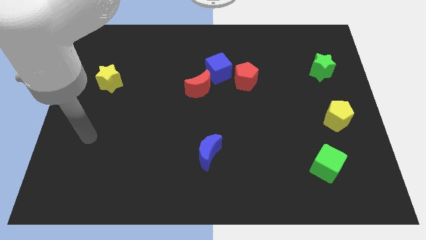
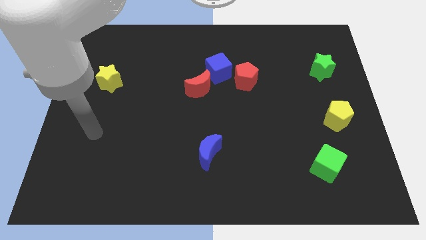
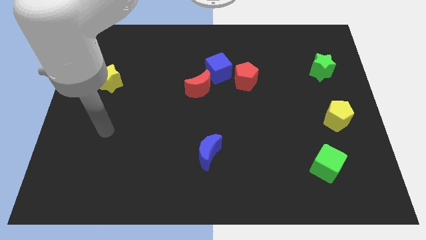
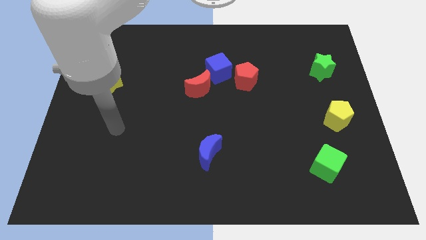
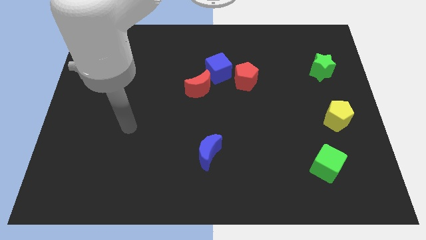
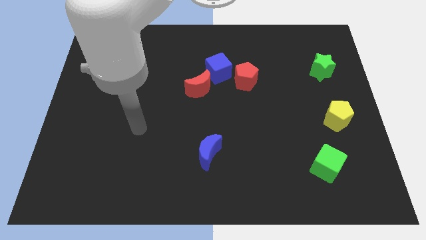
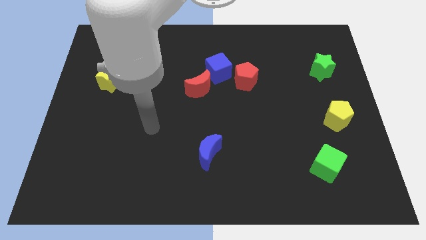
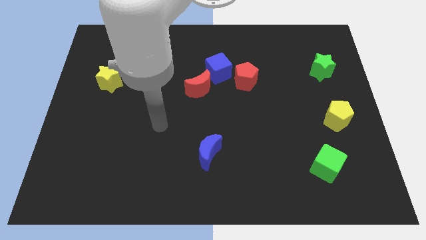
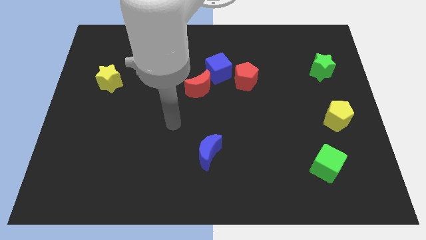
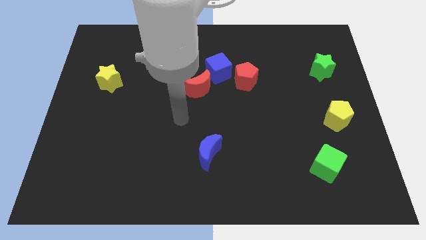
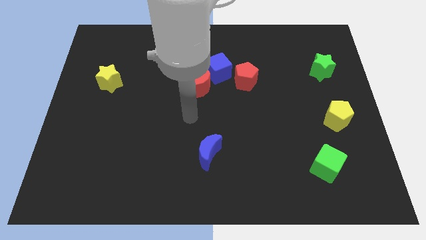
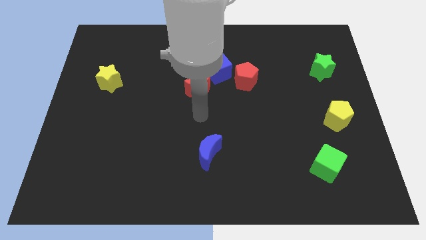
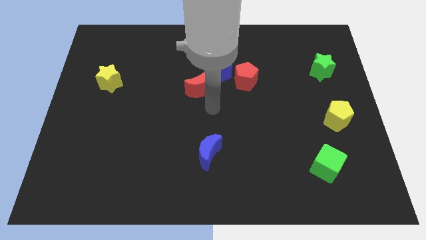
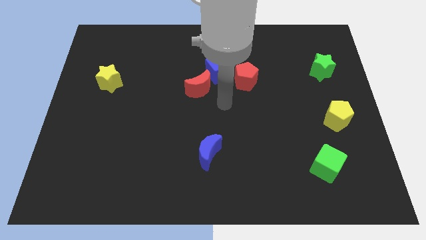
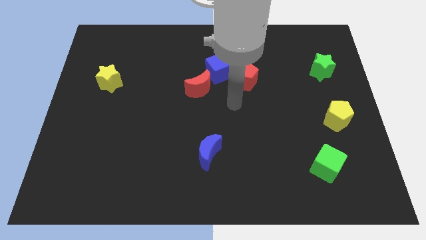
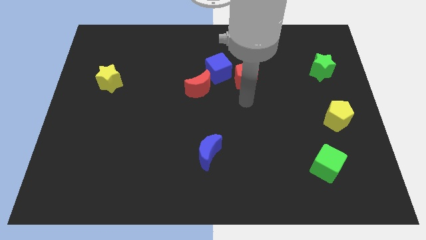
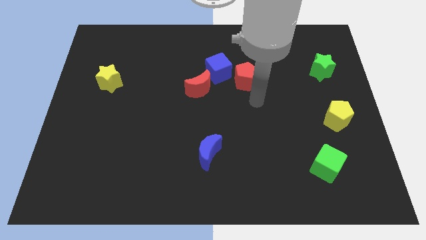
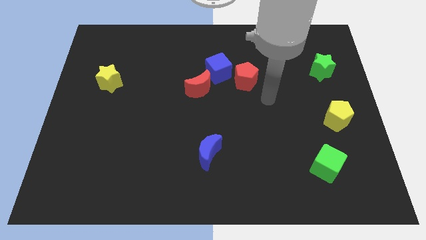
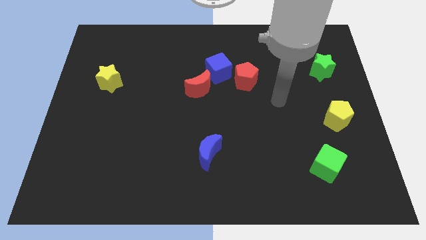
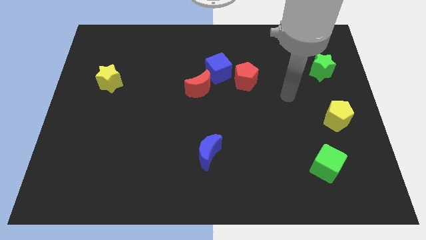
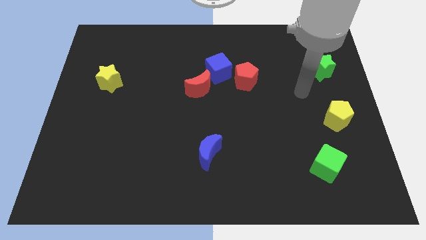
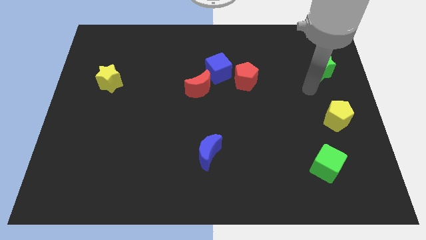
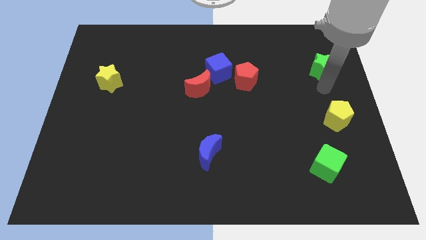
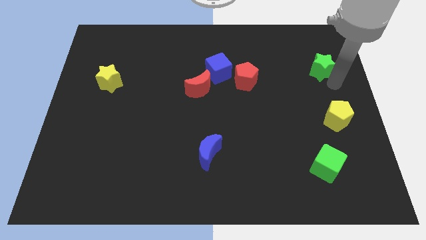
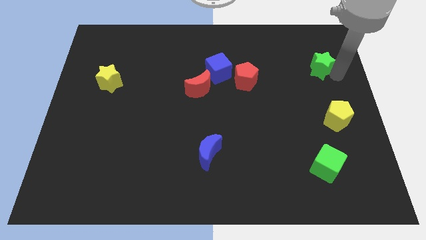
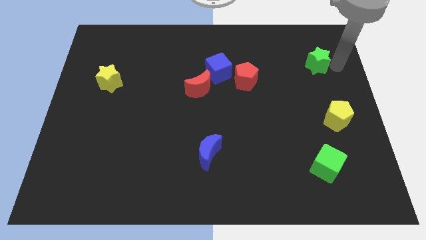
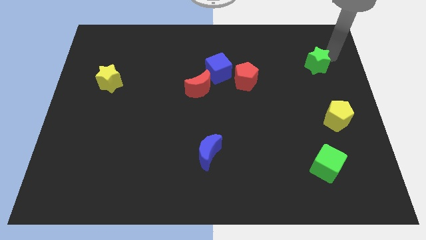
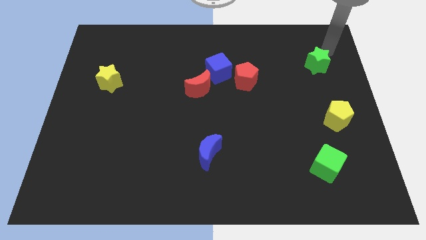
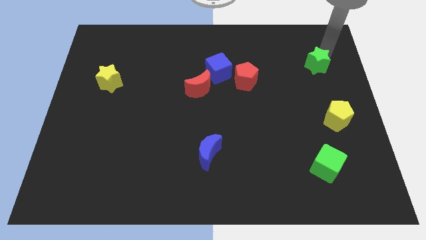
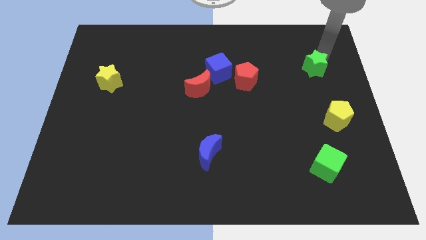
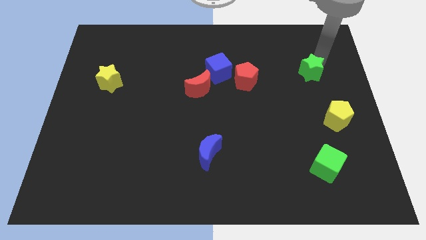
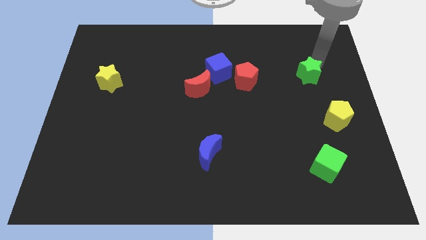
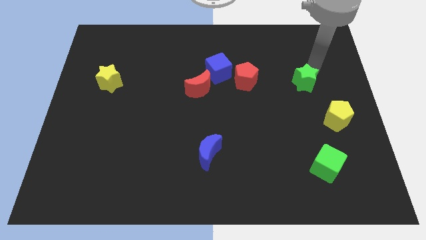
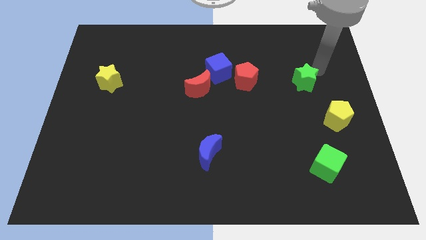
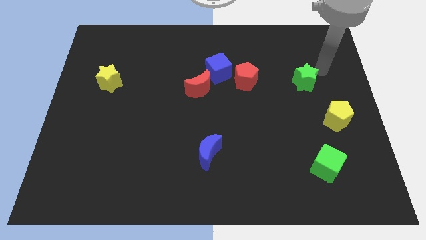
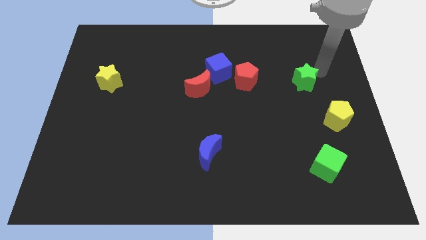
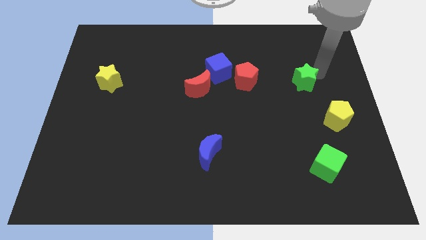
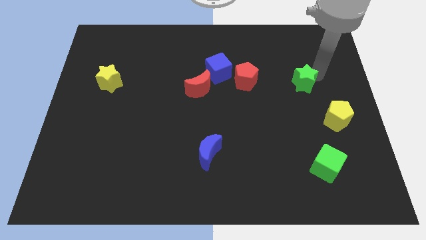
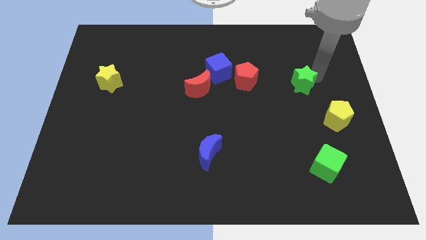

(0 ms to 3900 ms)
push the green star downwards and to the left slightly

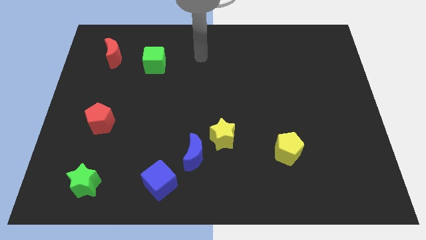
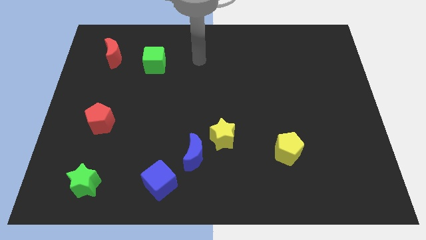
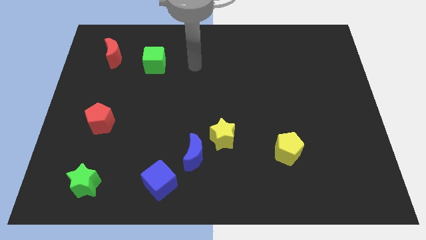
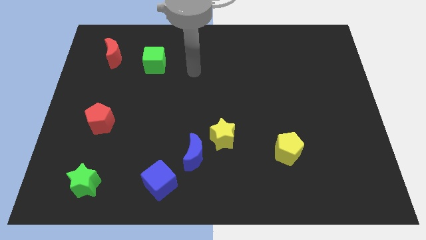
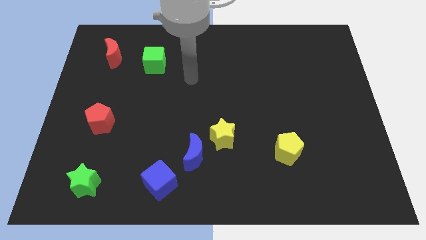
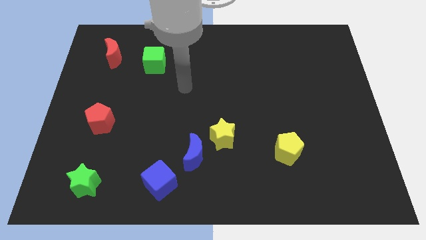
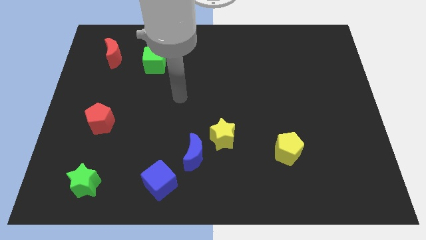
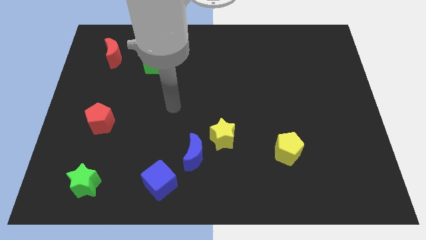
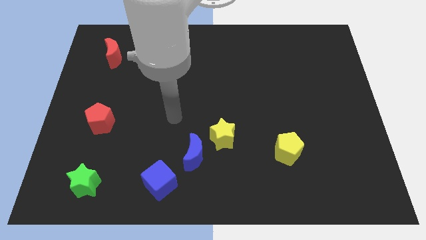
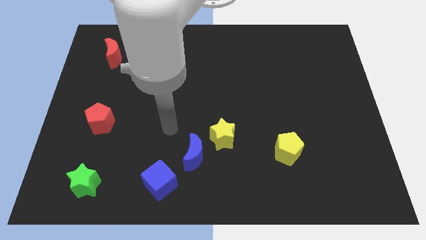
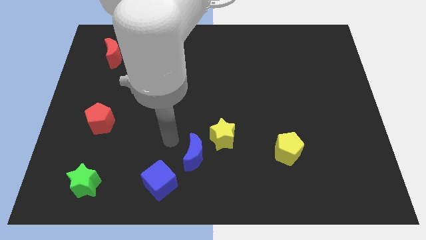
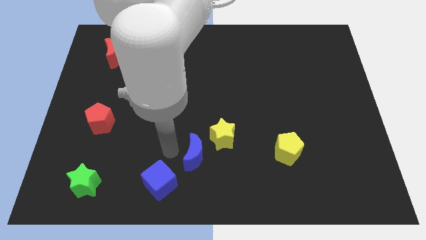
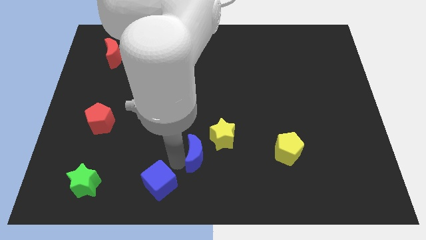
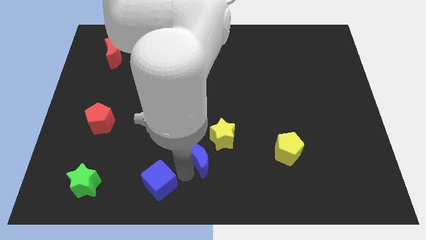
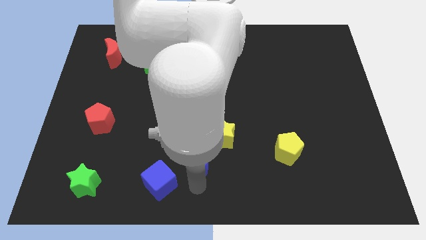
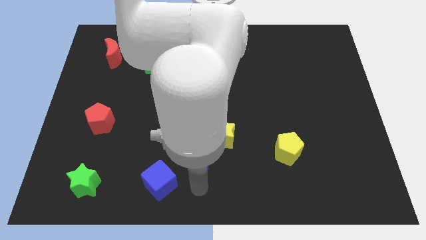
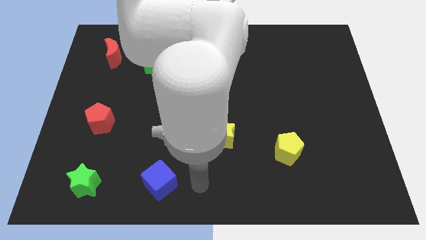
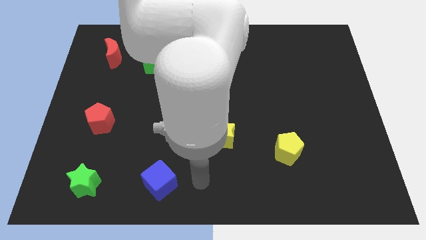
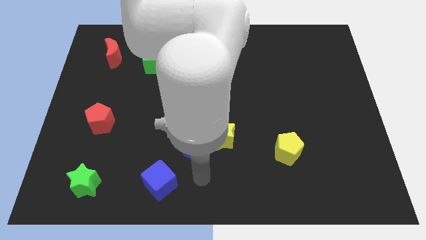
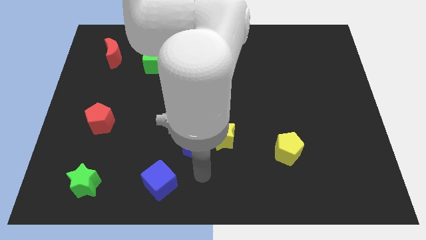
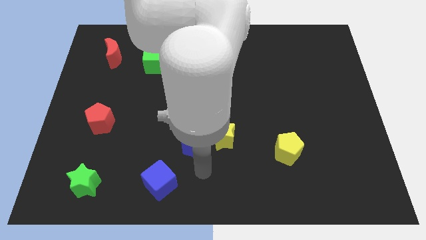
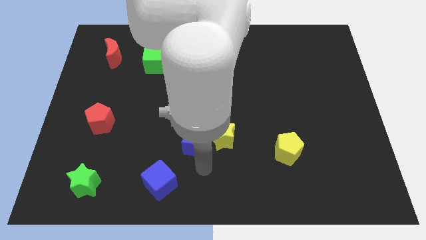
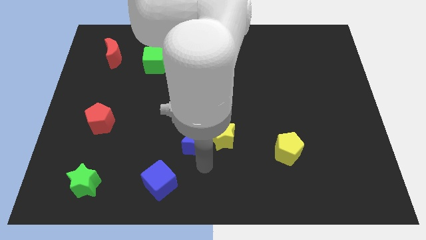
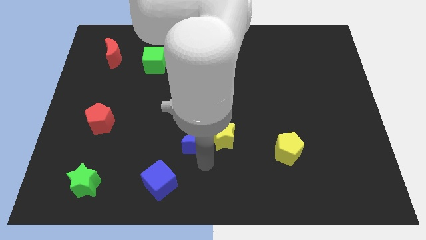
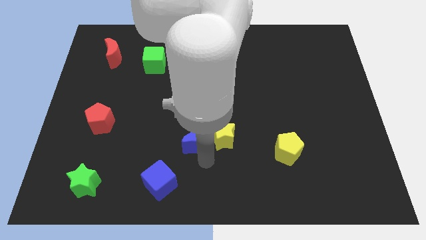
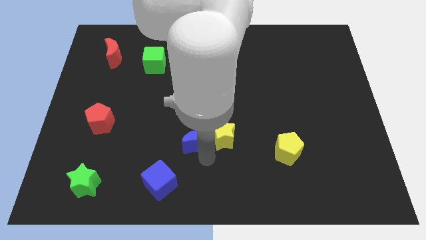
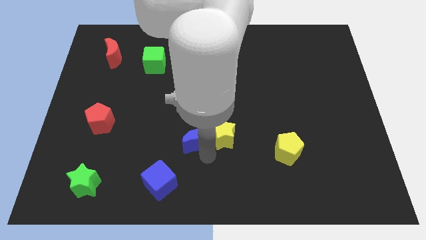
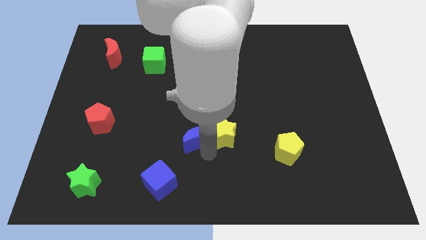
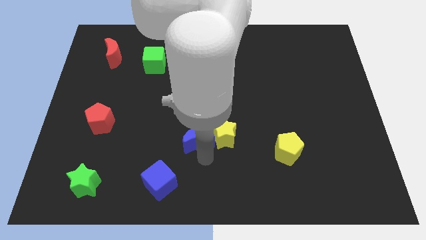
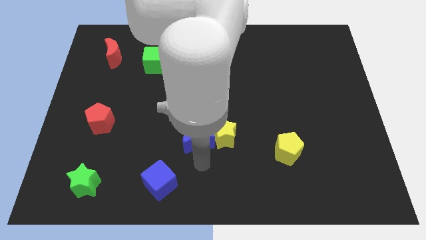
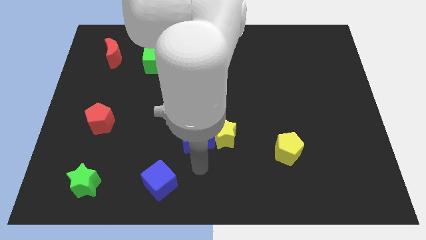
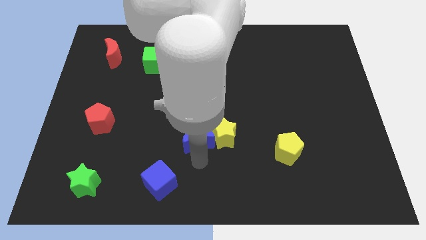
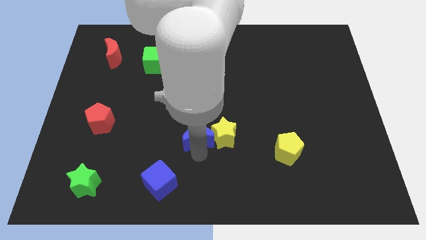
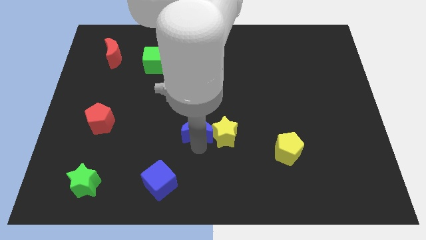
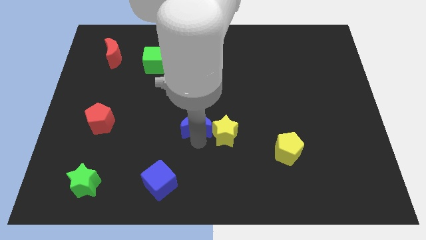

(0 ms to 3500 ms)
slightly move the blue moon up

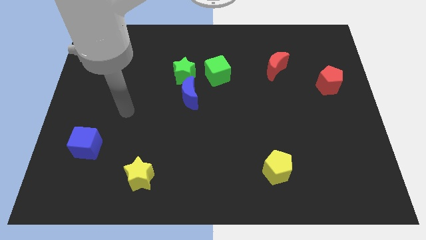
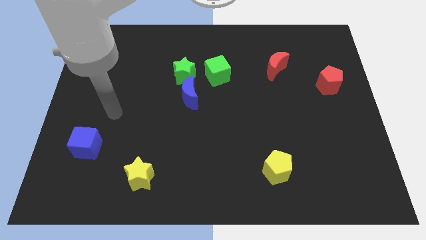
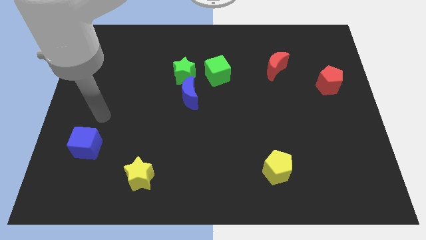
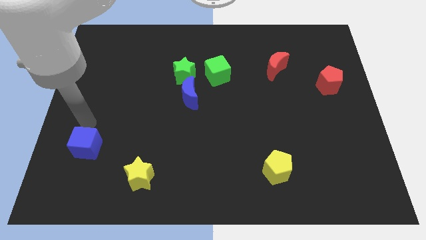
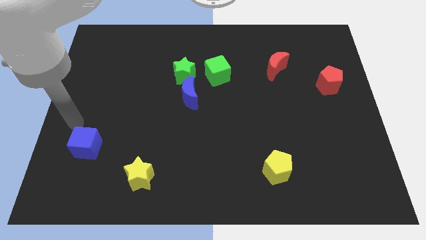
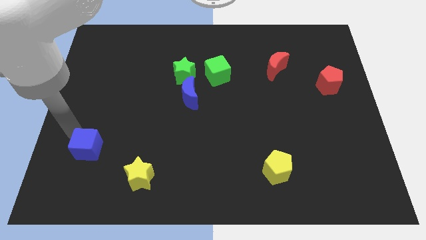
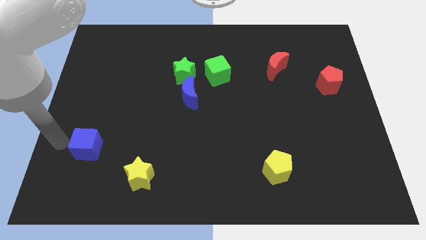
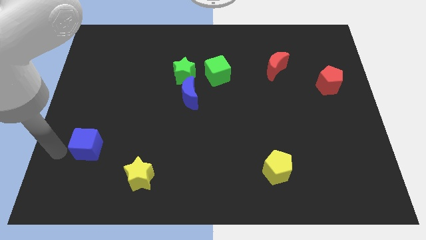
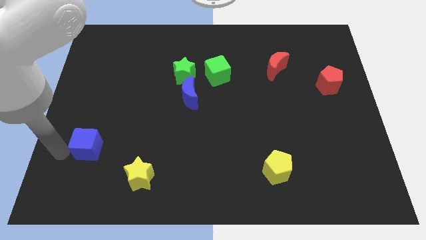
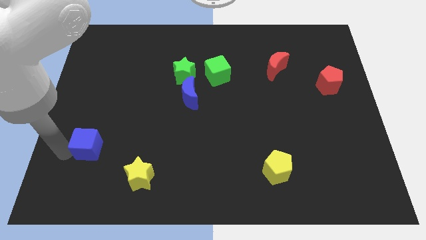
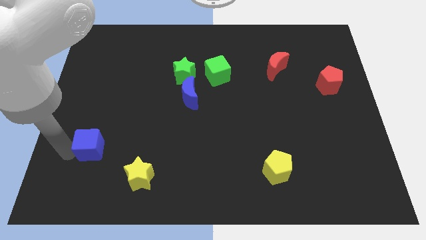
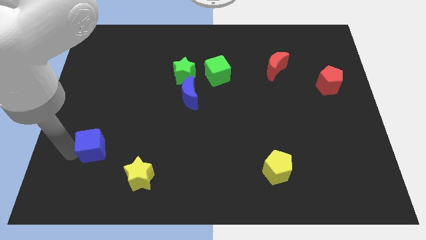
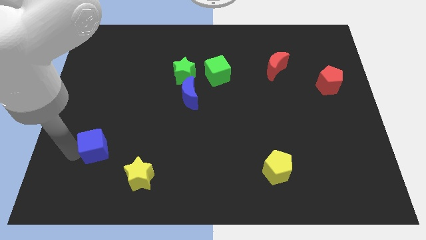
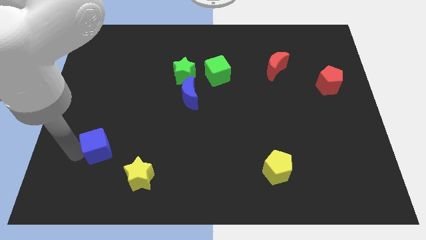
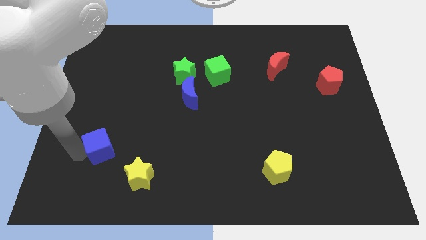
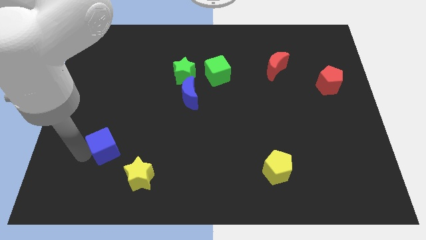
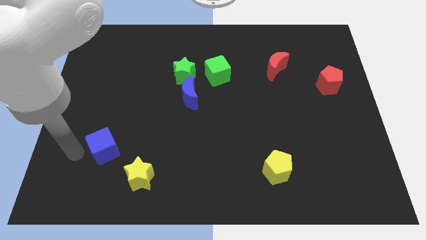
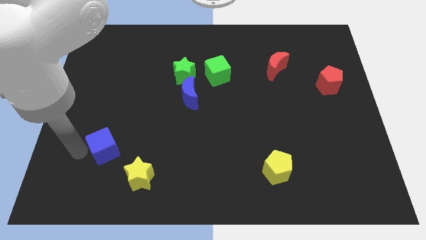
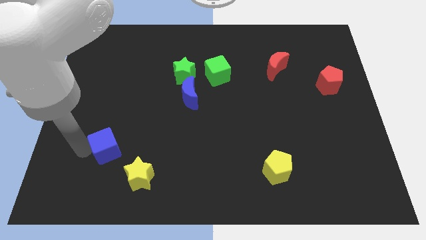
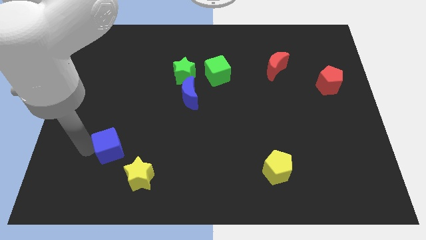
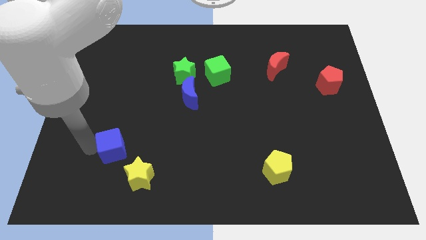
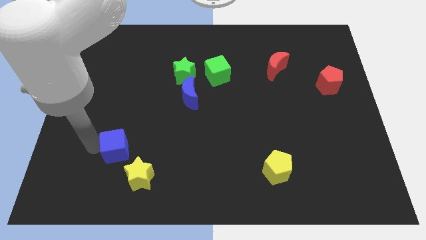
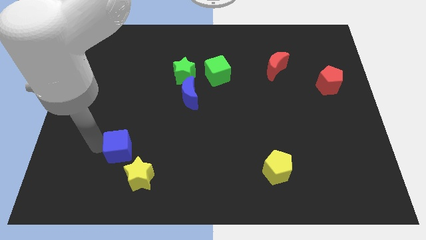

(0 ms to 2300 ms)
push the blue cube right a little
